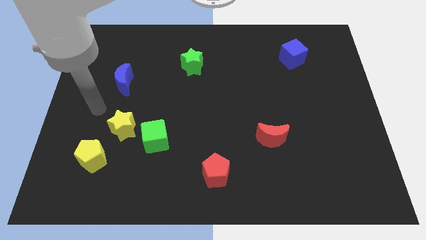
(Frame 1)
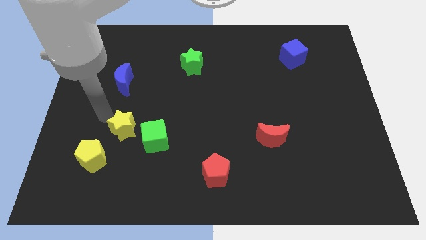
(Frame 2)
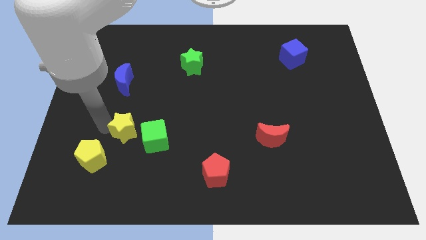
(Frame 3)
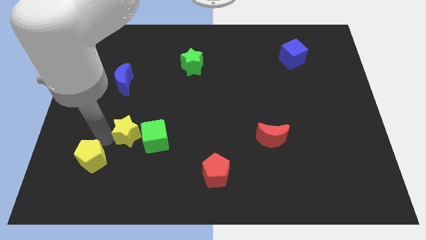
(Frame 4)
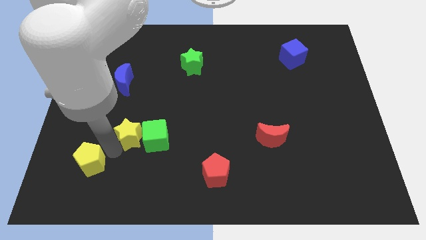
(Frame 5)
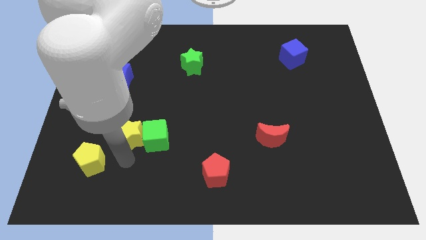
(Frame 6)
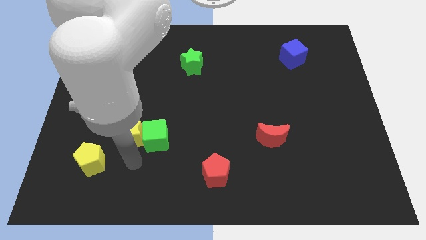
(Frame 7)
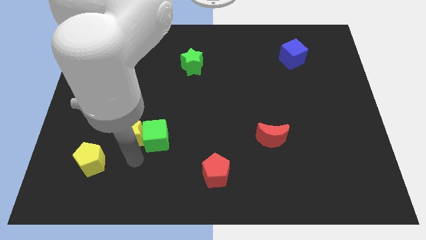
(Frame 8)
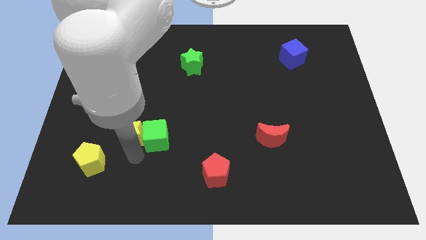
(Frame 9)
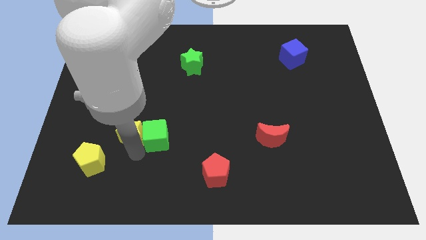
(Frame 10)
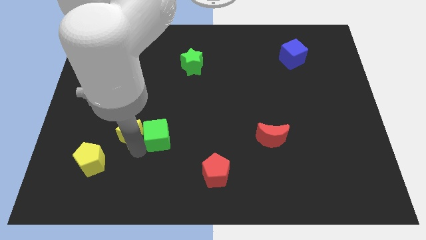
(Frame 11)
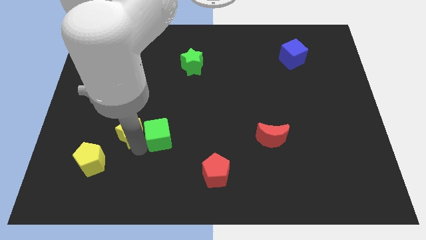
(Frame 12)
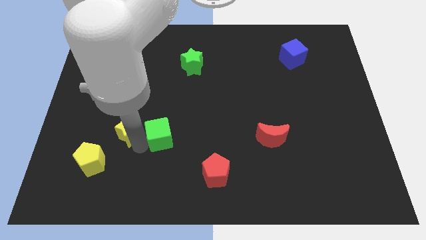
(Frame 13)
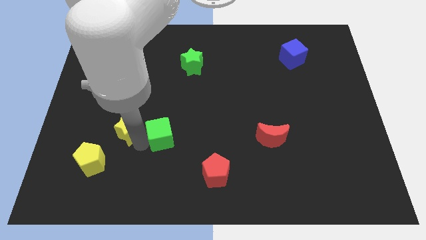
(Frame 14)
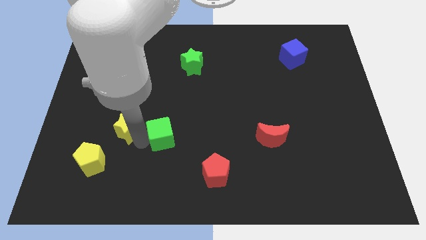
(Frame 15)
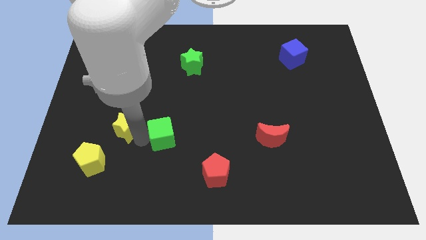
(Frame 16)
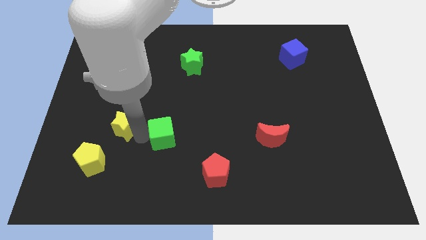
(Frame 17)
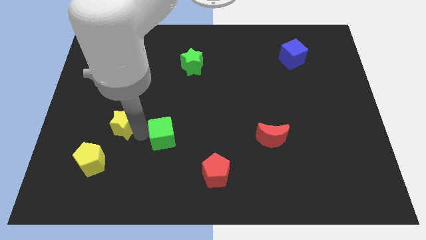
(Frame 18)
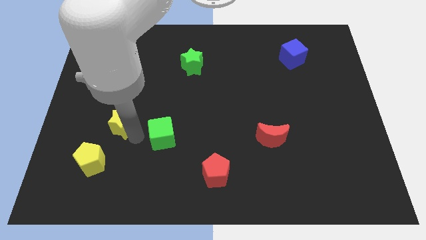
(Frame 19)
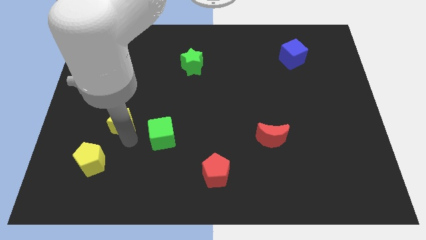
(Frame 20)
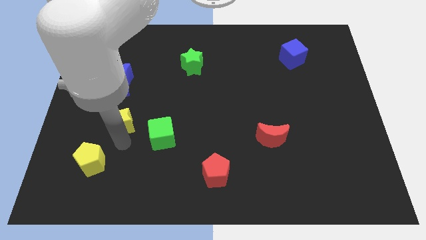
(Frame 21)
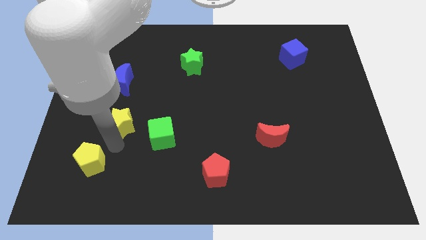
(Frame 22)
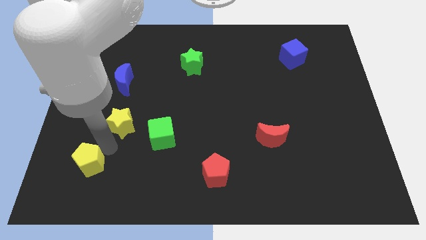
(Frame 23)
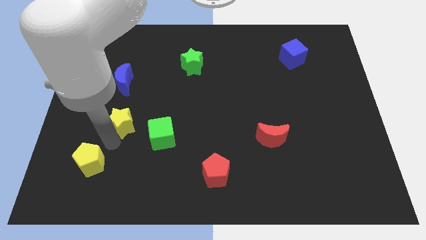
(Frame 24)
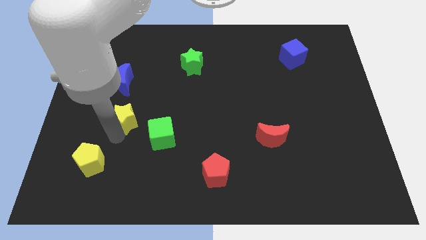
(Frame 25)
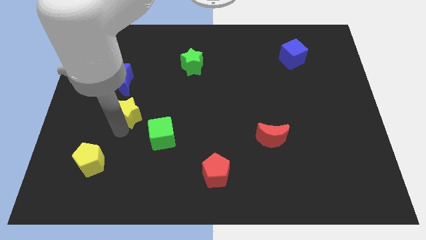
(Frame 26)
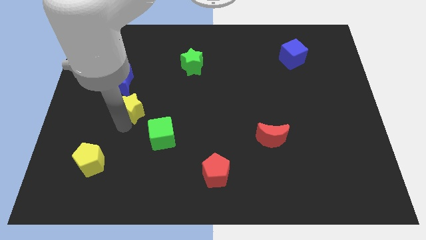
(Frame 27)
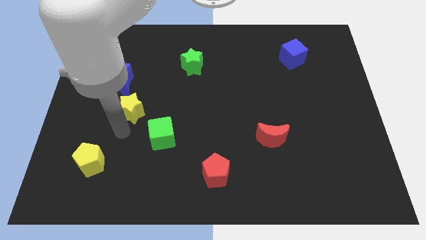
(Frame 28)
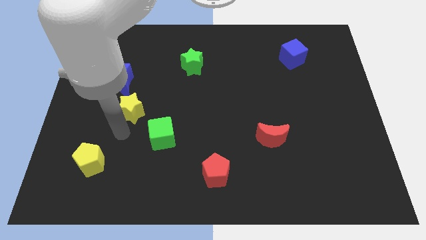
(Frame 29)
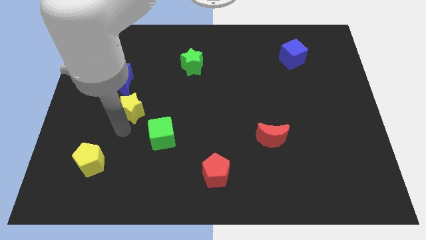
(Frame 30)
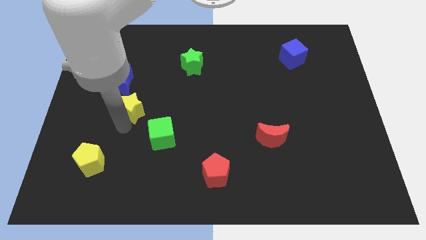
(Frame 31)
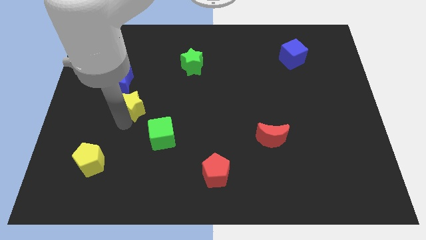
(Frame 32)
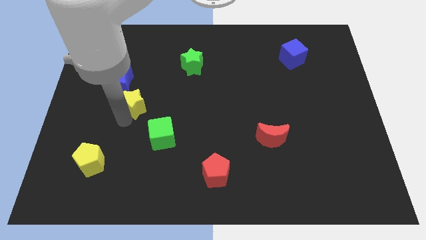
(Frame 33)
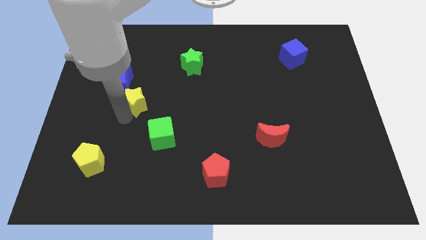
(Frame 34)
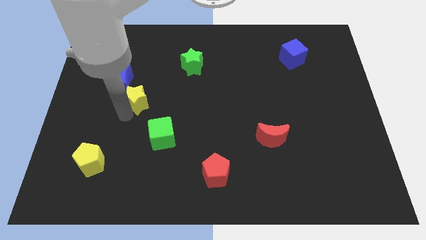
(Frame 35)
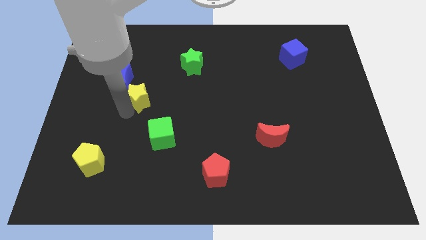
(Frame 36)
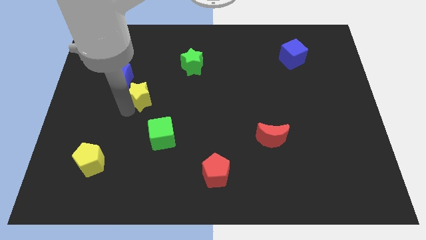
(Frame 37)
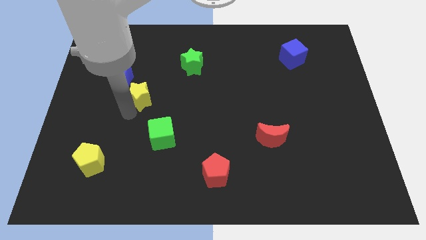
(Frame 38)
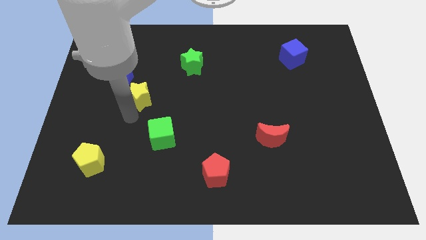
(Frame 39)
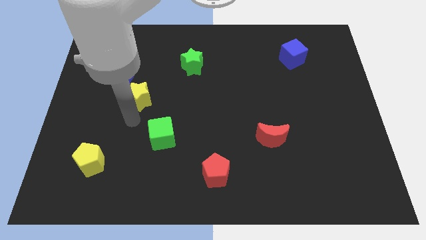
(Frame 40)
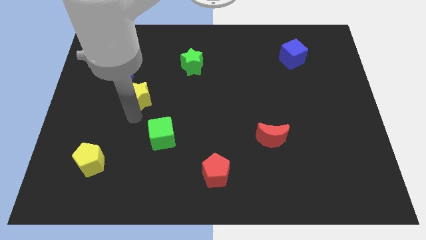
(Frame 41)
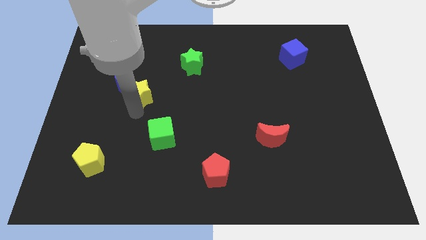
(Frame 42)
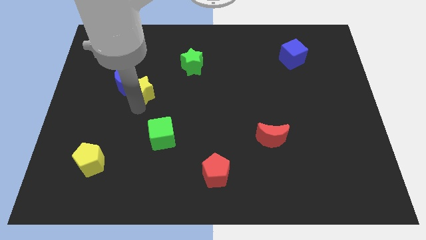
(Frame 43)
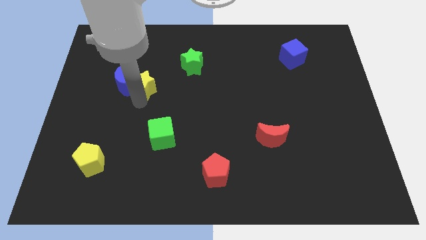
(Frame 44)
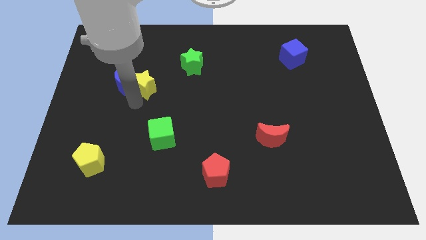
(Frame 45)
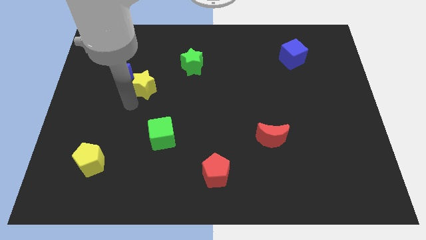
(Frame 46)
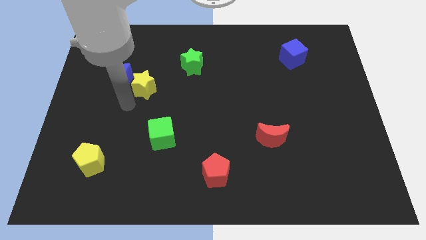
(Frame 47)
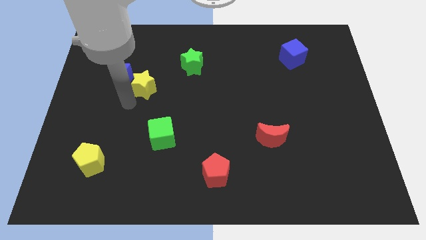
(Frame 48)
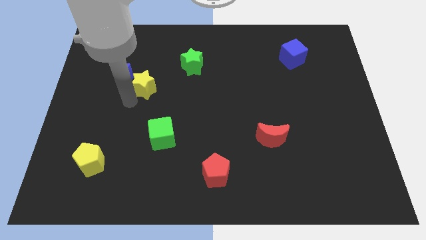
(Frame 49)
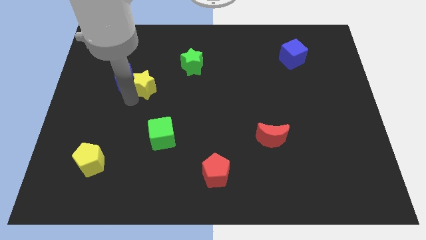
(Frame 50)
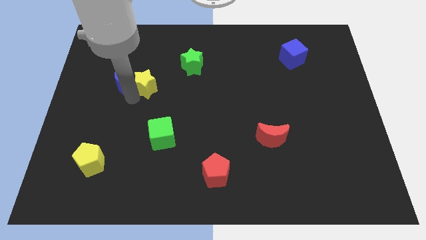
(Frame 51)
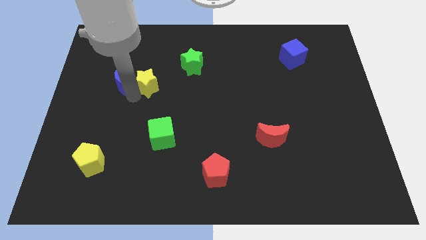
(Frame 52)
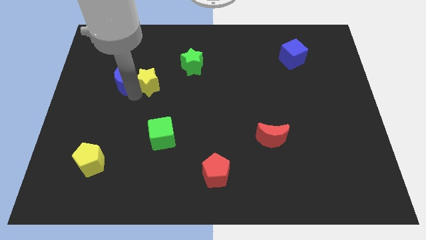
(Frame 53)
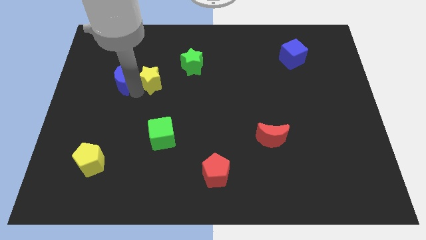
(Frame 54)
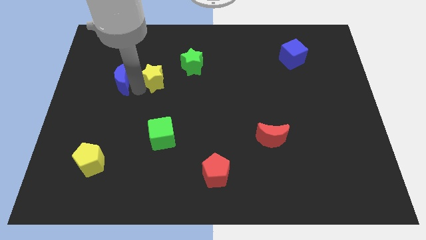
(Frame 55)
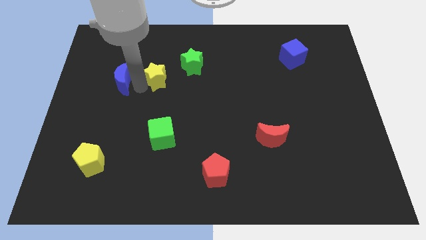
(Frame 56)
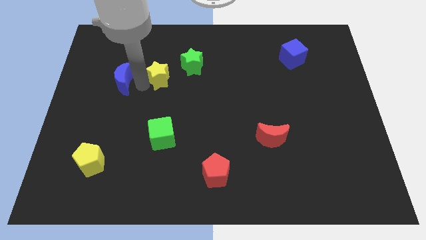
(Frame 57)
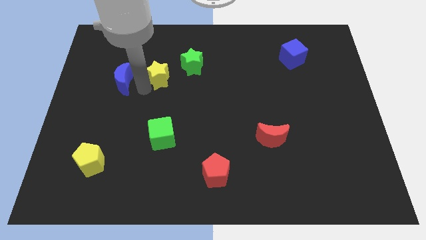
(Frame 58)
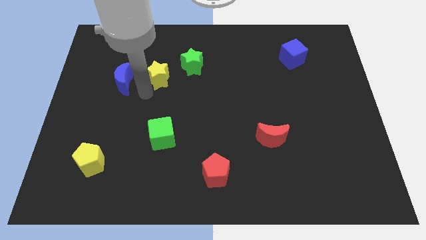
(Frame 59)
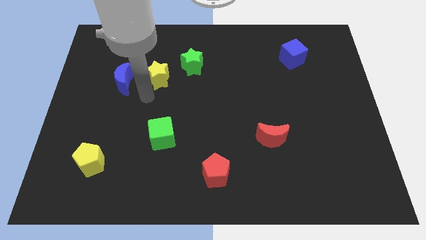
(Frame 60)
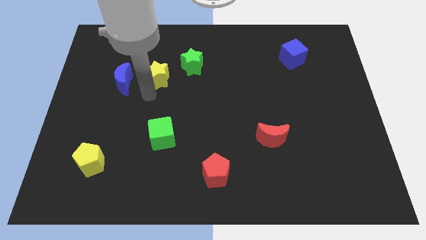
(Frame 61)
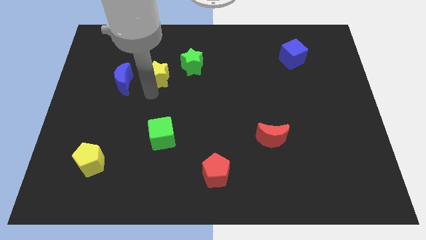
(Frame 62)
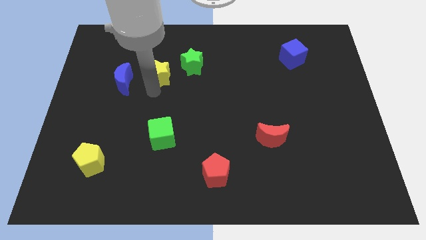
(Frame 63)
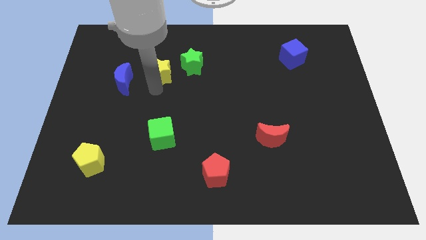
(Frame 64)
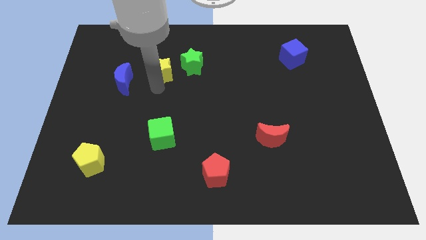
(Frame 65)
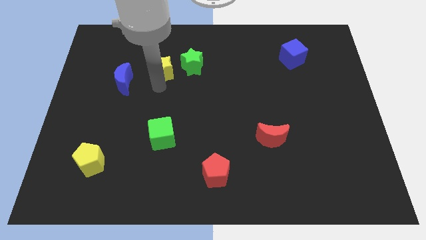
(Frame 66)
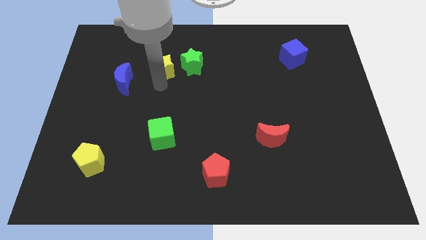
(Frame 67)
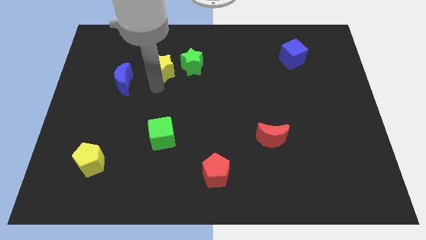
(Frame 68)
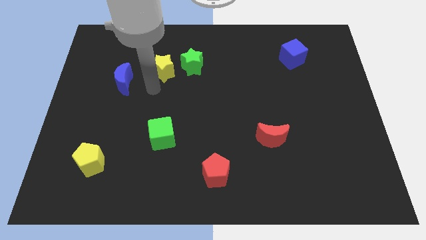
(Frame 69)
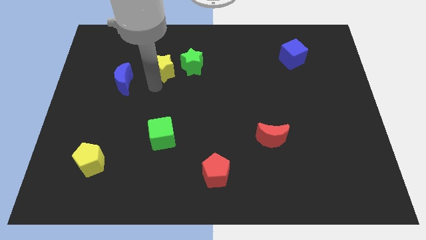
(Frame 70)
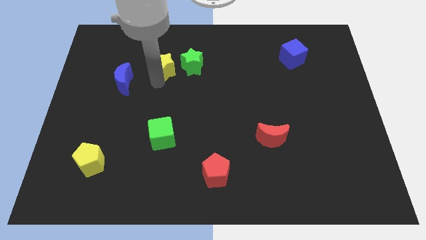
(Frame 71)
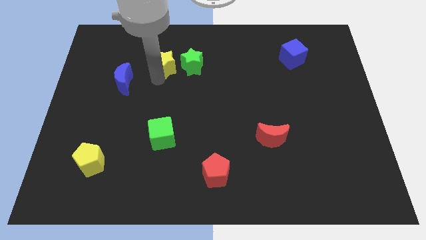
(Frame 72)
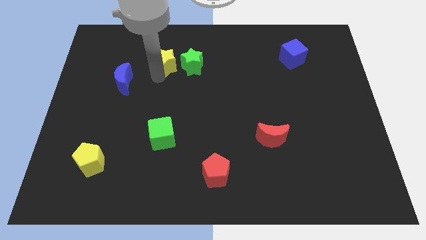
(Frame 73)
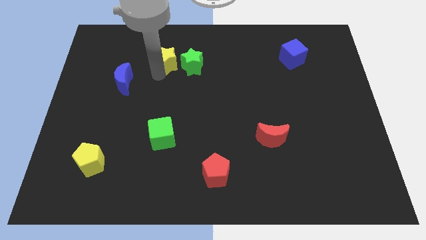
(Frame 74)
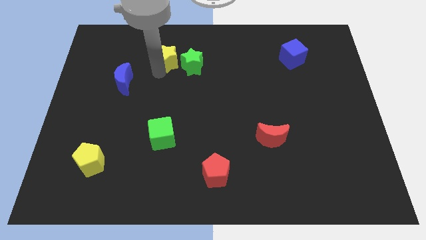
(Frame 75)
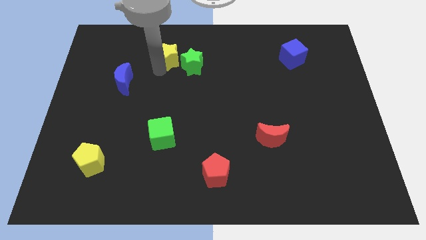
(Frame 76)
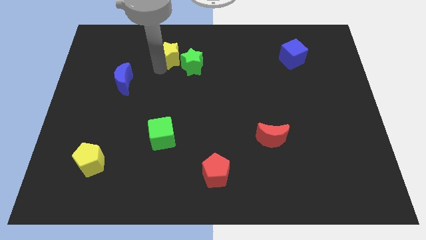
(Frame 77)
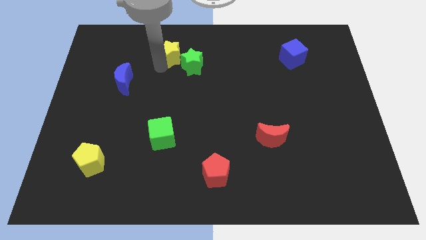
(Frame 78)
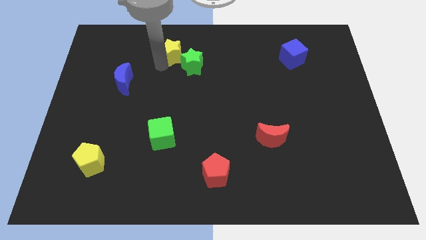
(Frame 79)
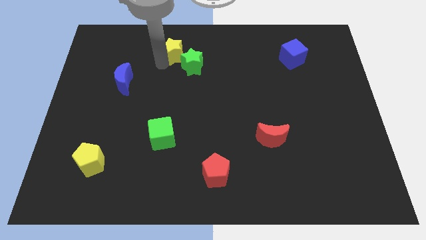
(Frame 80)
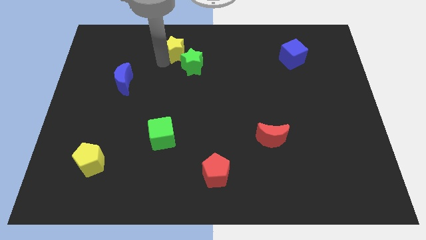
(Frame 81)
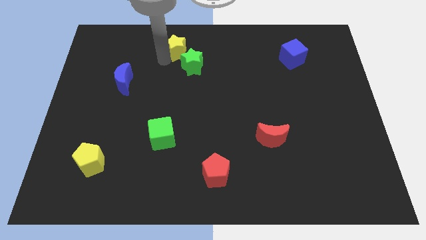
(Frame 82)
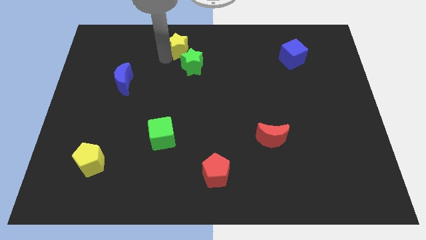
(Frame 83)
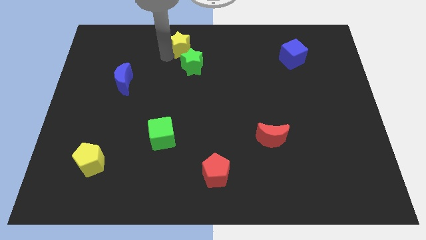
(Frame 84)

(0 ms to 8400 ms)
slide the yellow star to the top side
